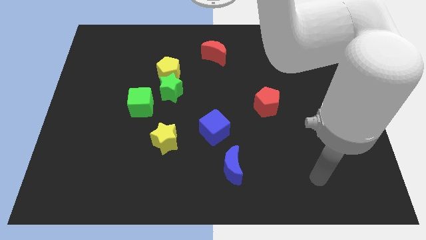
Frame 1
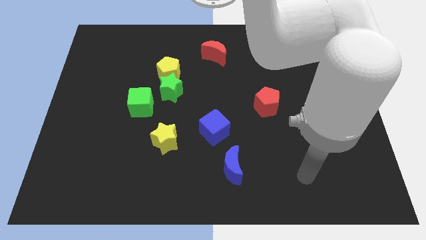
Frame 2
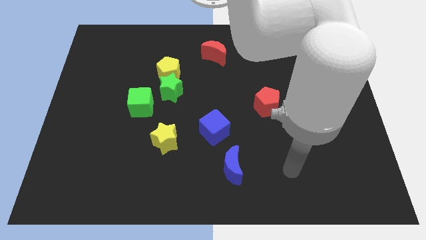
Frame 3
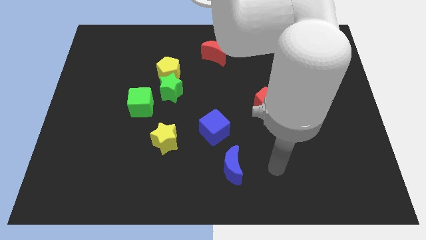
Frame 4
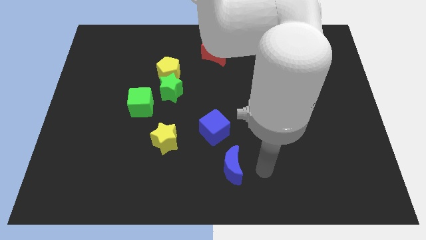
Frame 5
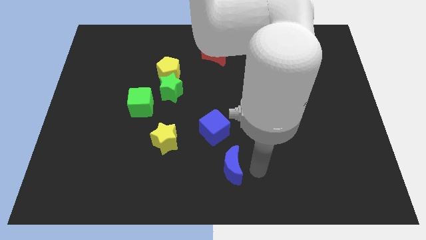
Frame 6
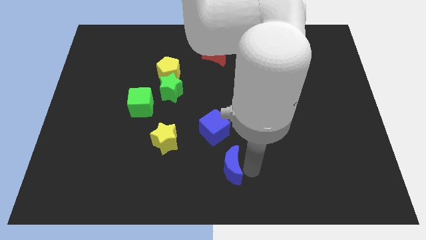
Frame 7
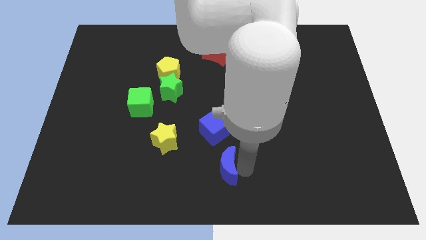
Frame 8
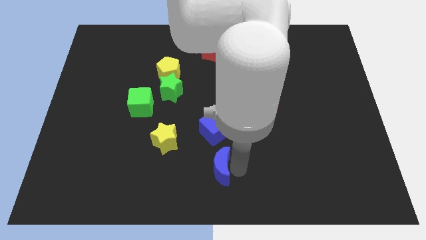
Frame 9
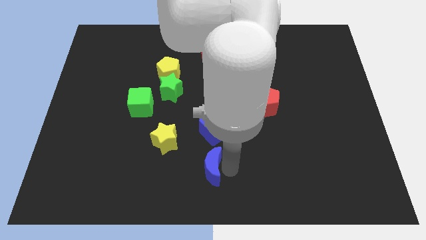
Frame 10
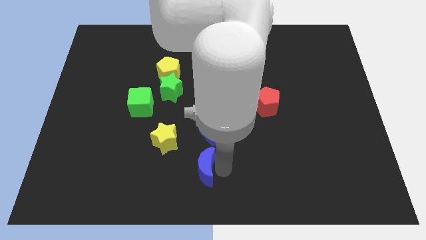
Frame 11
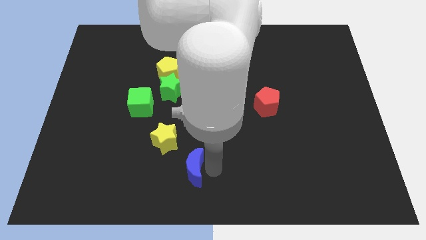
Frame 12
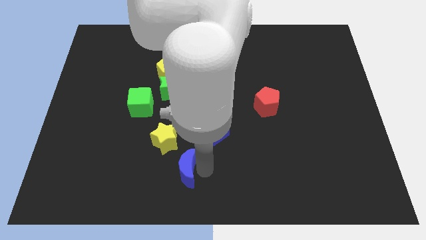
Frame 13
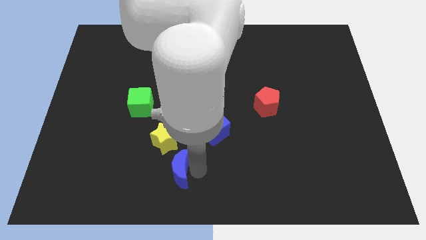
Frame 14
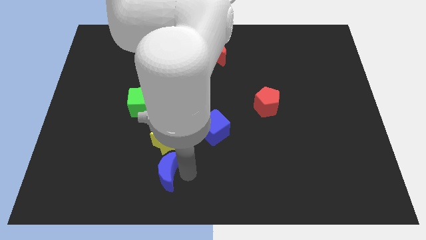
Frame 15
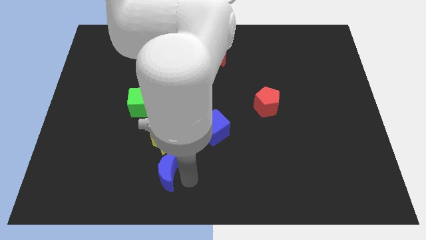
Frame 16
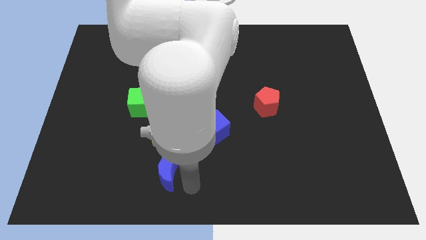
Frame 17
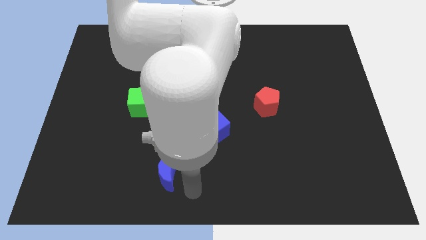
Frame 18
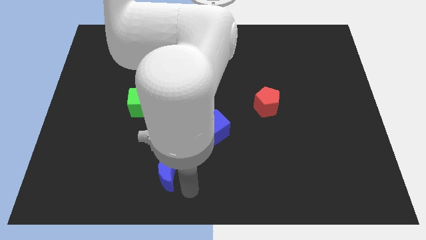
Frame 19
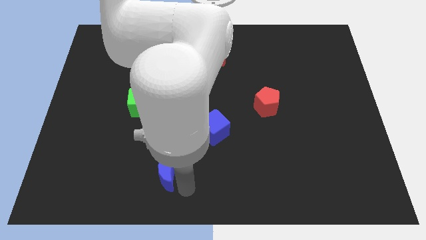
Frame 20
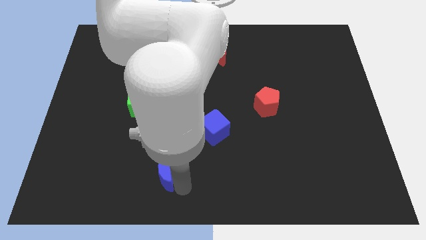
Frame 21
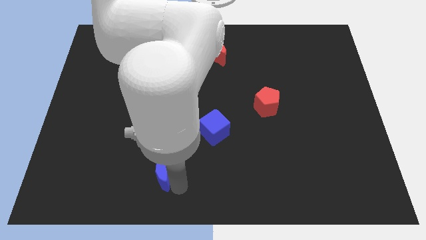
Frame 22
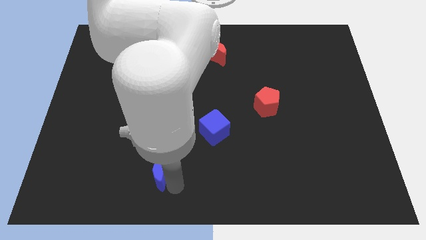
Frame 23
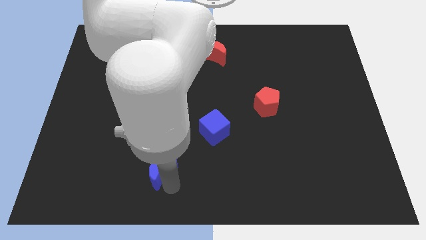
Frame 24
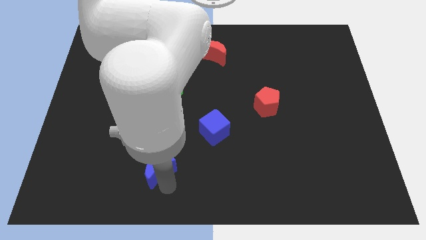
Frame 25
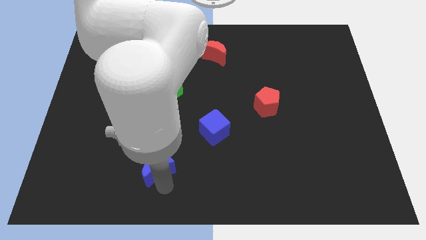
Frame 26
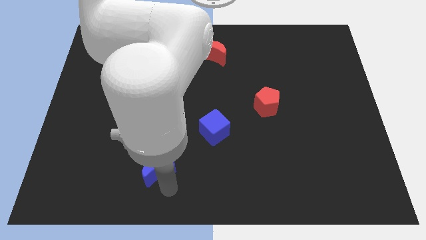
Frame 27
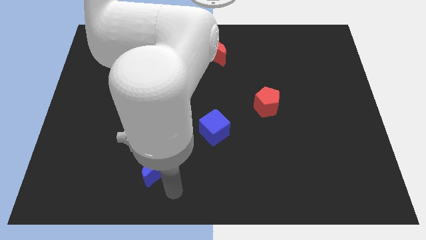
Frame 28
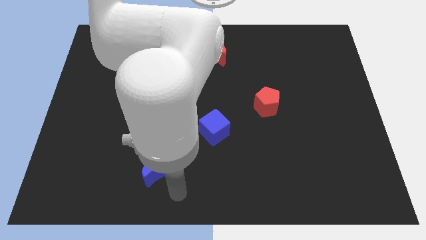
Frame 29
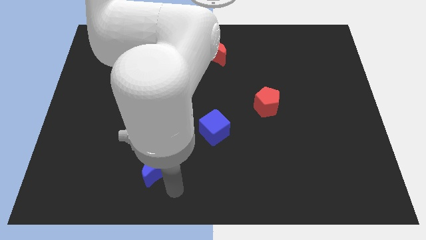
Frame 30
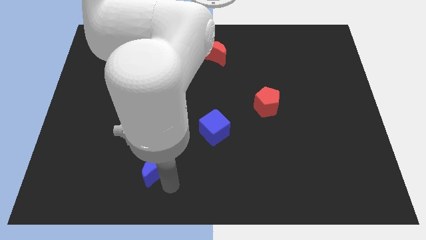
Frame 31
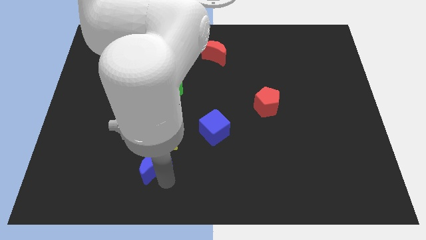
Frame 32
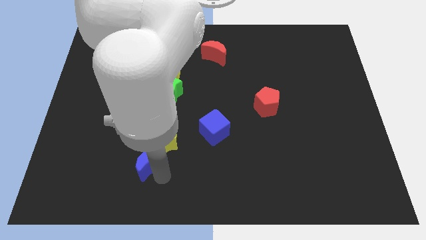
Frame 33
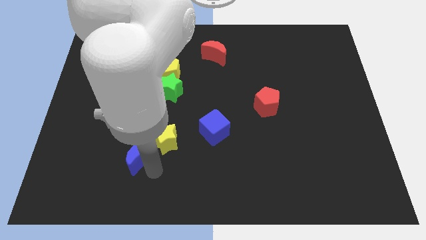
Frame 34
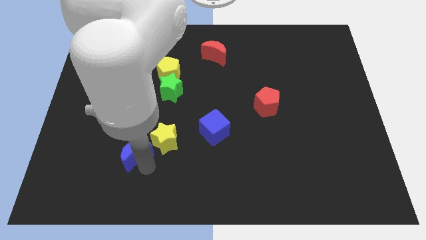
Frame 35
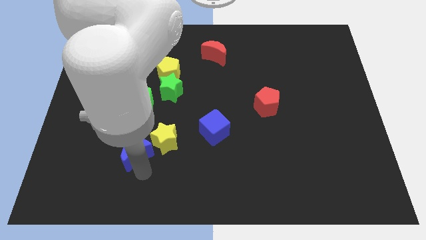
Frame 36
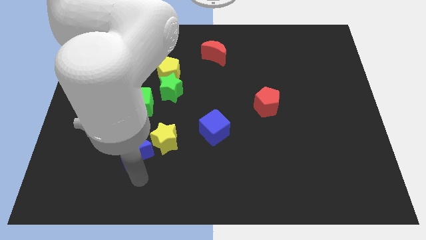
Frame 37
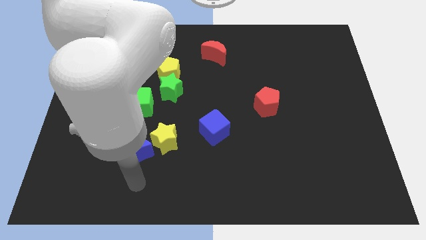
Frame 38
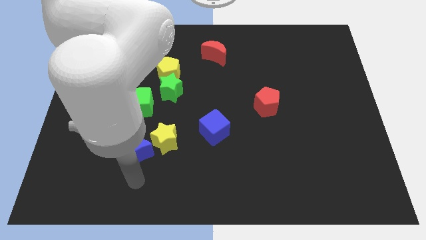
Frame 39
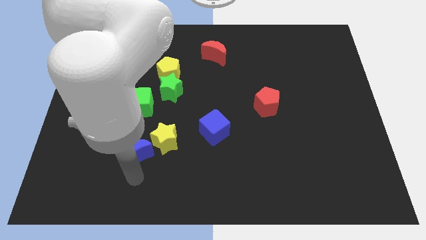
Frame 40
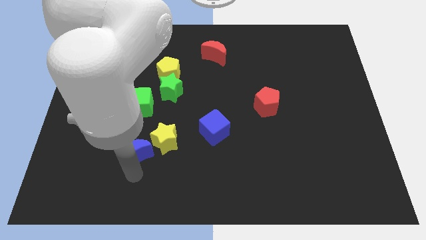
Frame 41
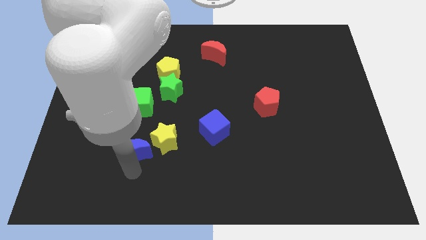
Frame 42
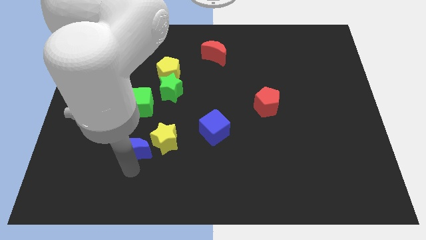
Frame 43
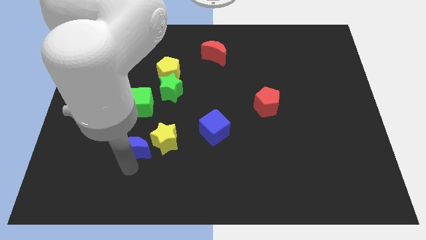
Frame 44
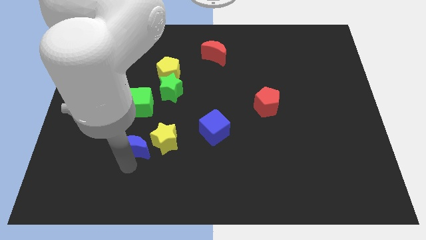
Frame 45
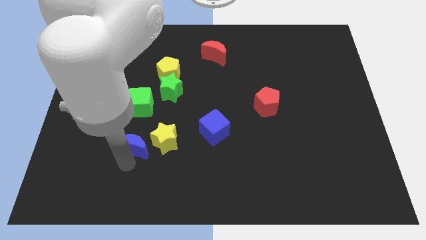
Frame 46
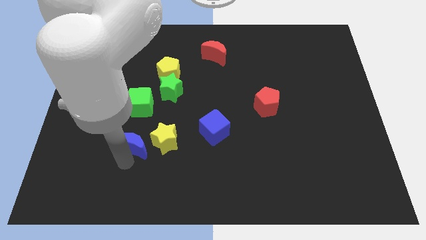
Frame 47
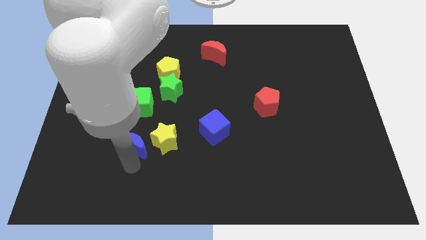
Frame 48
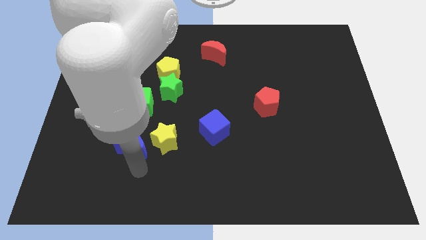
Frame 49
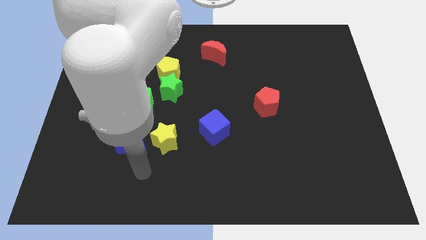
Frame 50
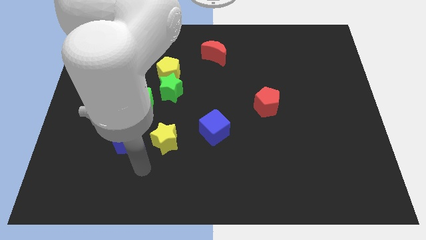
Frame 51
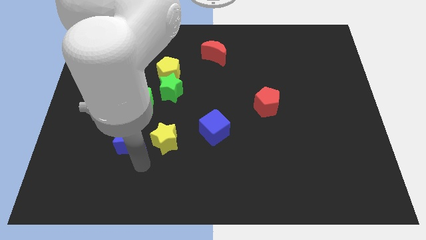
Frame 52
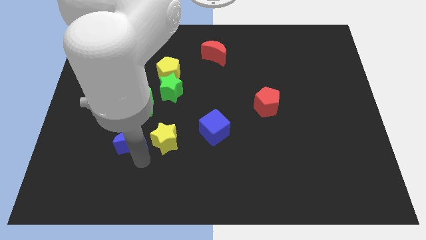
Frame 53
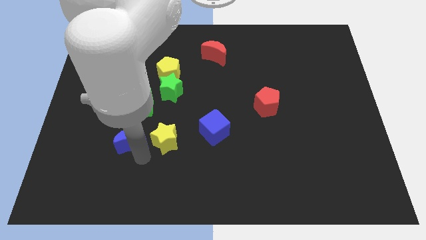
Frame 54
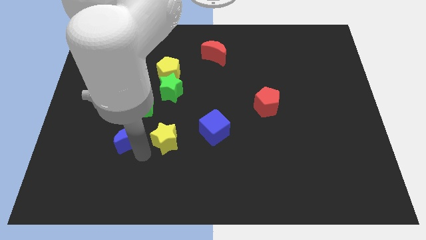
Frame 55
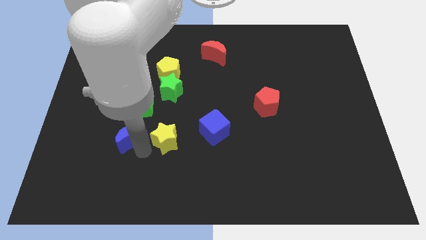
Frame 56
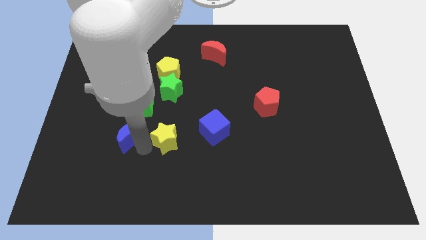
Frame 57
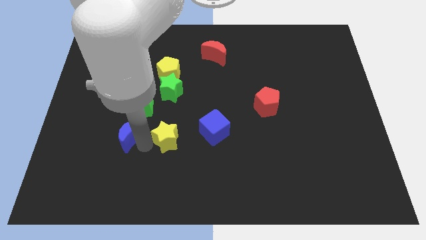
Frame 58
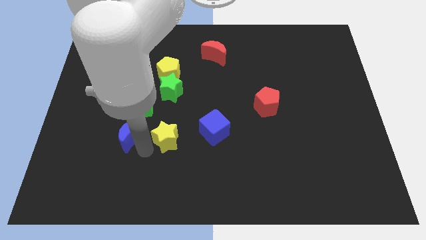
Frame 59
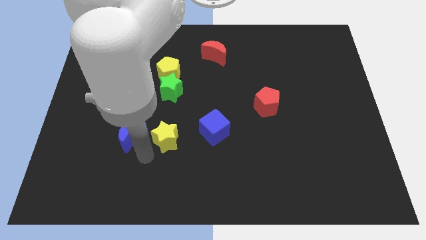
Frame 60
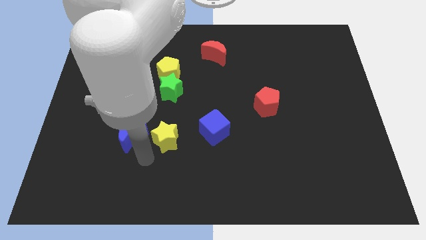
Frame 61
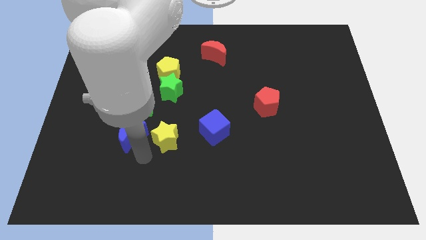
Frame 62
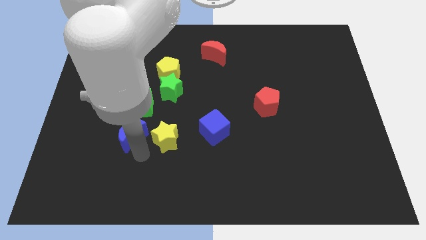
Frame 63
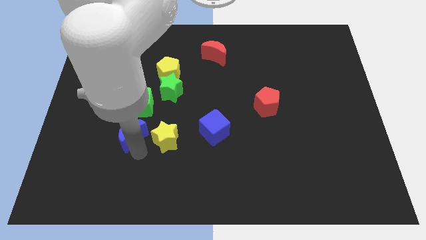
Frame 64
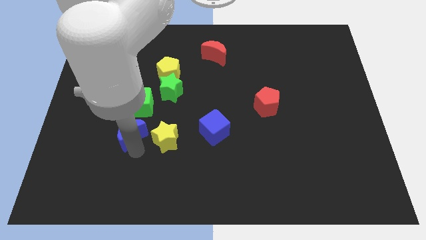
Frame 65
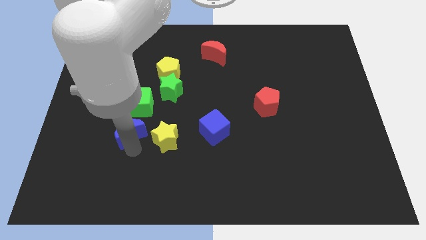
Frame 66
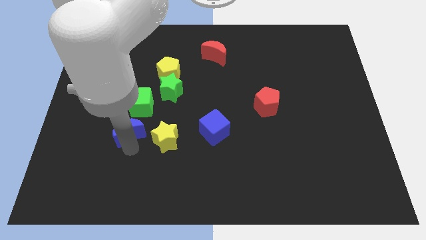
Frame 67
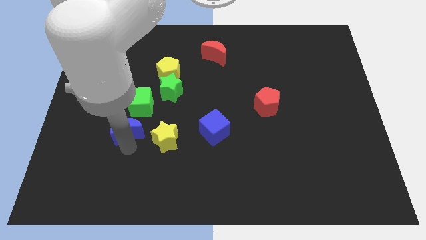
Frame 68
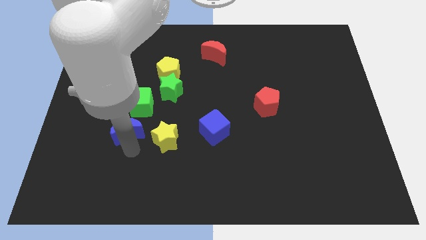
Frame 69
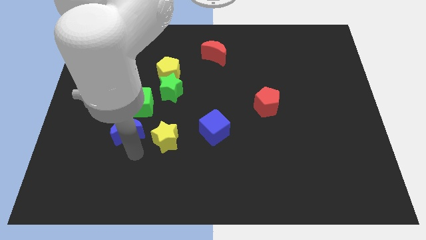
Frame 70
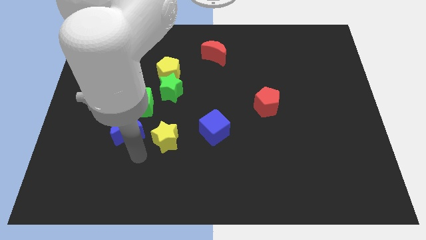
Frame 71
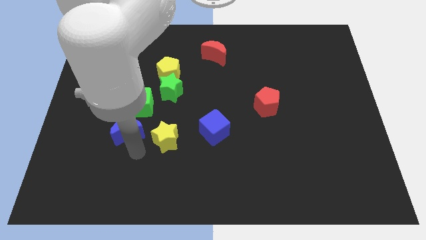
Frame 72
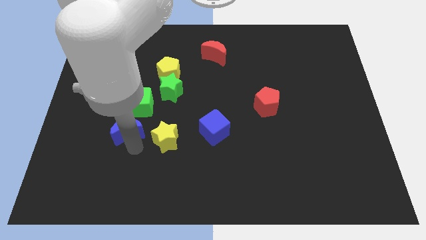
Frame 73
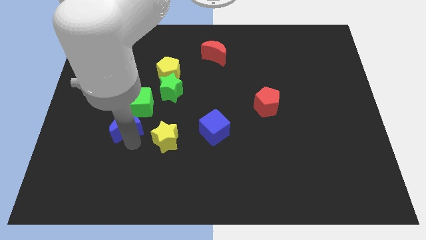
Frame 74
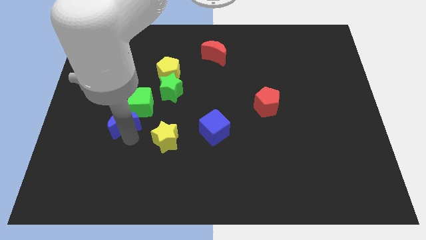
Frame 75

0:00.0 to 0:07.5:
slide the blue moon upwards and left
